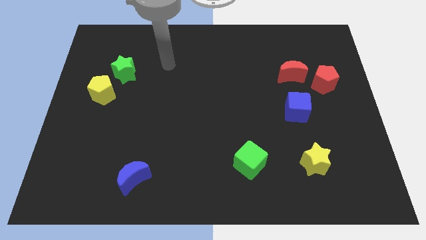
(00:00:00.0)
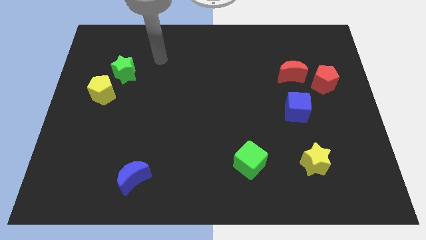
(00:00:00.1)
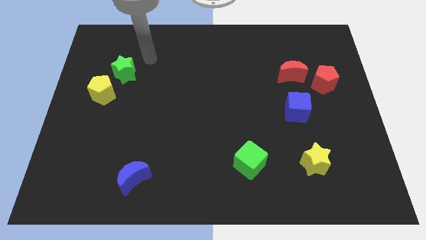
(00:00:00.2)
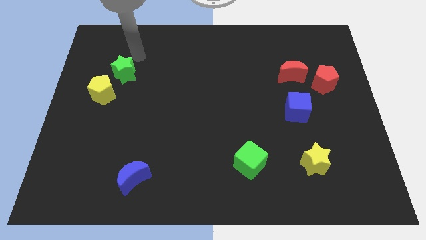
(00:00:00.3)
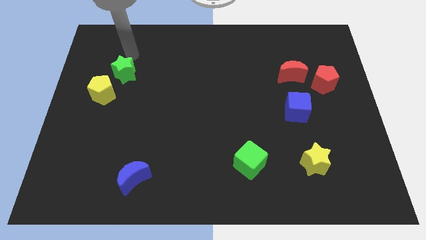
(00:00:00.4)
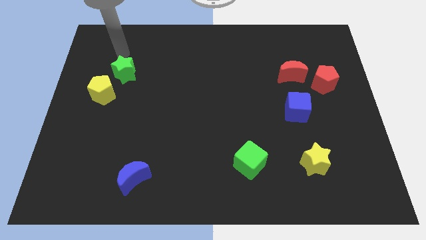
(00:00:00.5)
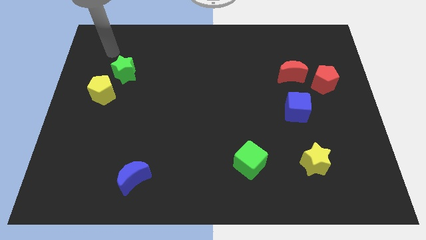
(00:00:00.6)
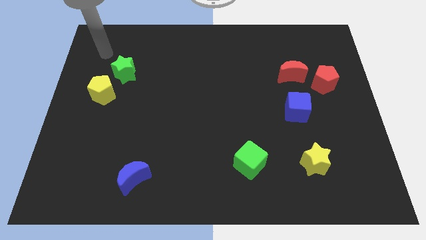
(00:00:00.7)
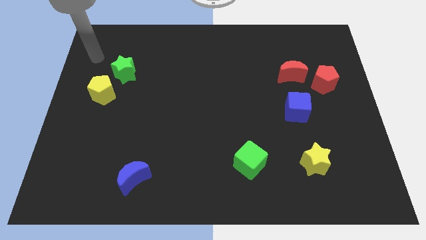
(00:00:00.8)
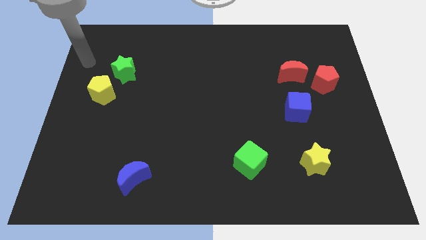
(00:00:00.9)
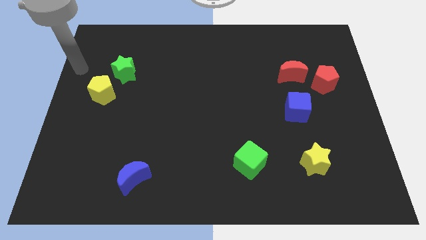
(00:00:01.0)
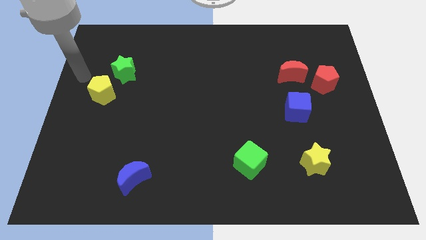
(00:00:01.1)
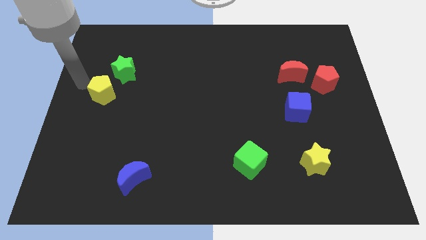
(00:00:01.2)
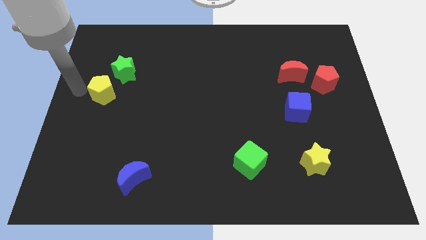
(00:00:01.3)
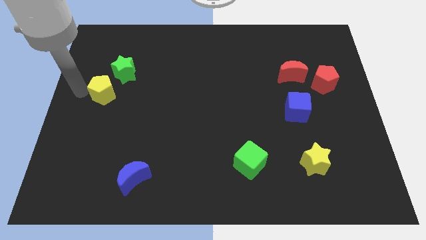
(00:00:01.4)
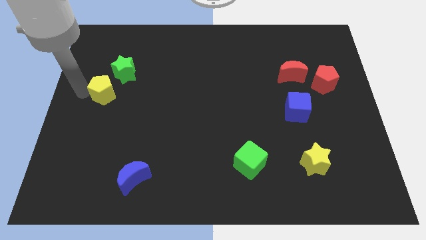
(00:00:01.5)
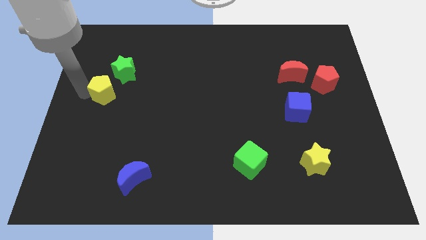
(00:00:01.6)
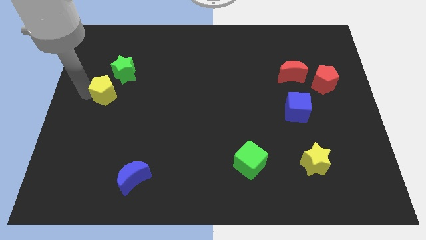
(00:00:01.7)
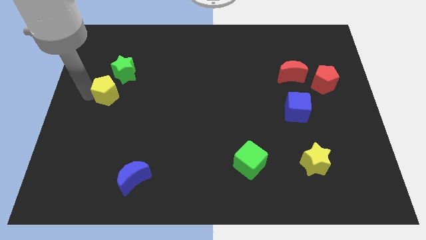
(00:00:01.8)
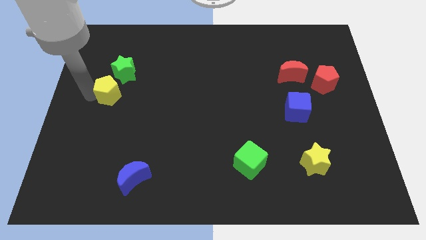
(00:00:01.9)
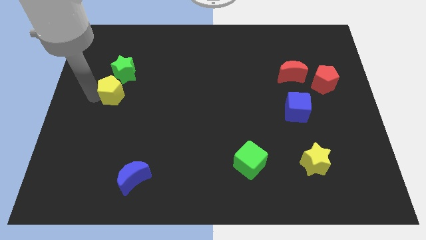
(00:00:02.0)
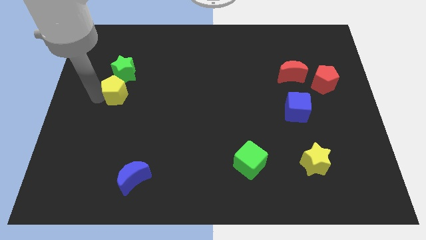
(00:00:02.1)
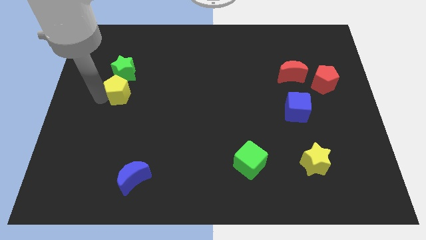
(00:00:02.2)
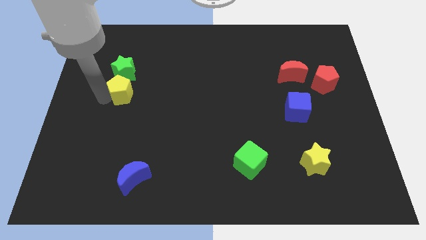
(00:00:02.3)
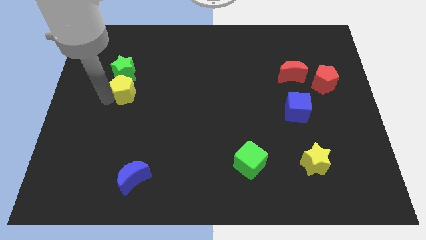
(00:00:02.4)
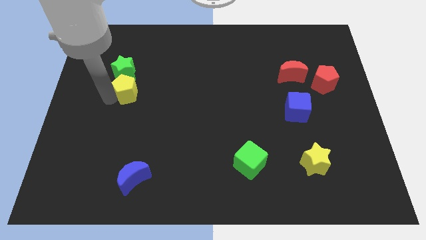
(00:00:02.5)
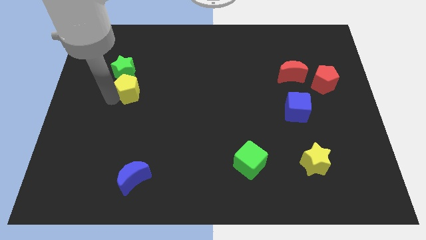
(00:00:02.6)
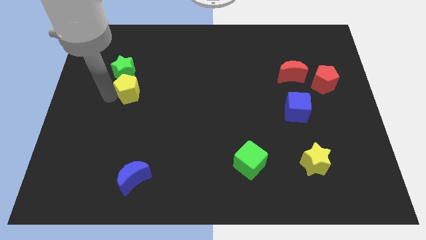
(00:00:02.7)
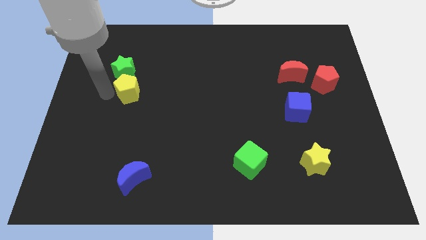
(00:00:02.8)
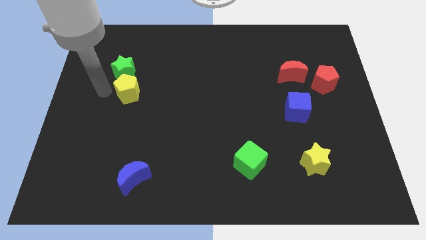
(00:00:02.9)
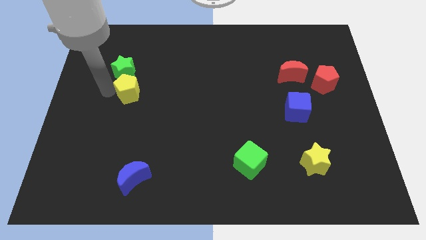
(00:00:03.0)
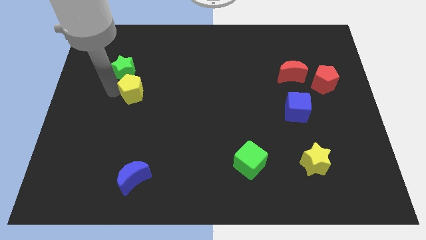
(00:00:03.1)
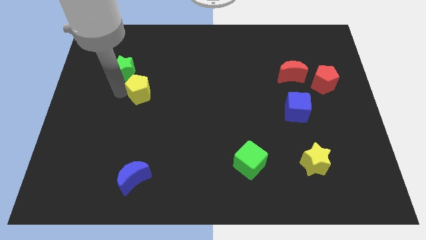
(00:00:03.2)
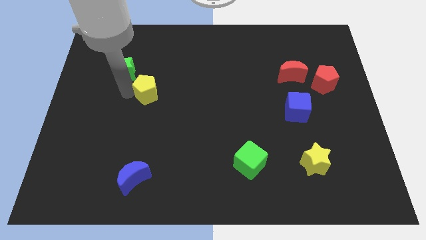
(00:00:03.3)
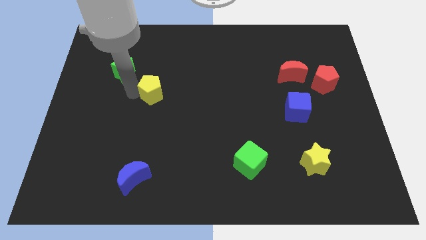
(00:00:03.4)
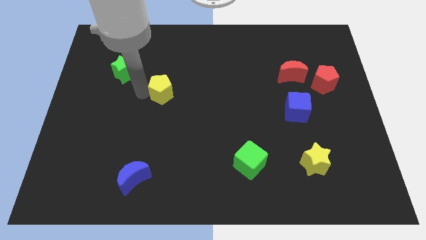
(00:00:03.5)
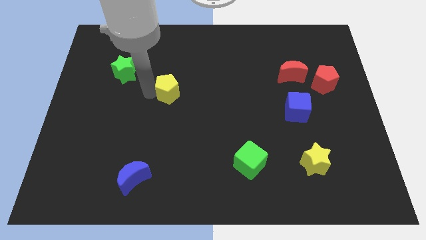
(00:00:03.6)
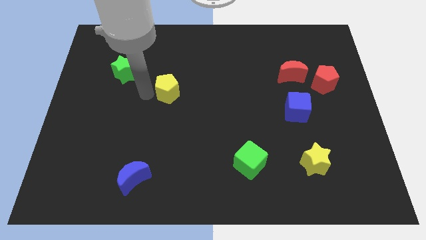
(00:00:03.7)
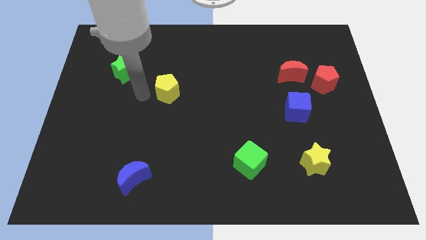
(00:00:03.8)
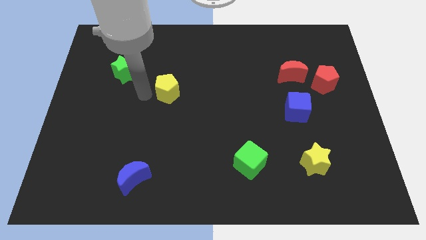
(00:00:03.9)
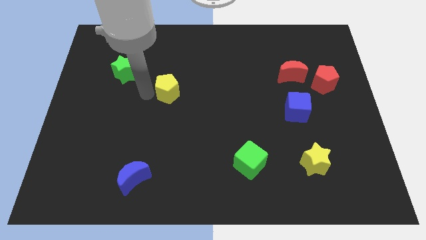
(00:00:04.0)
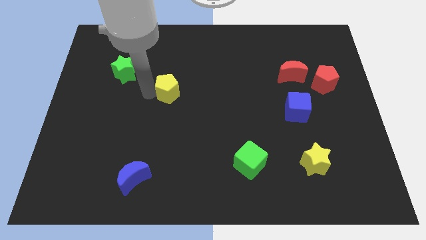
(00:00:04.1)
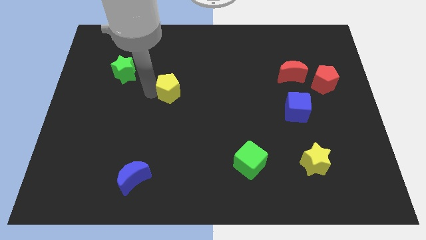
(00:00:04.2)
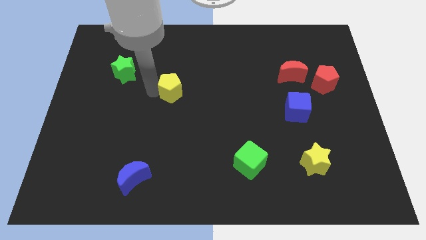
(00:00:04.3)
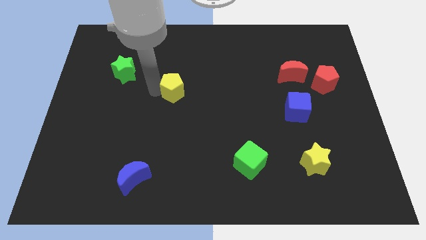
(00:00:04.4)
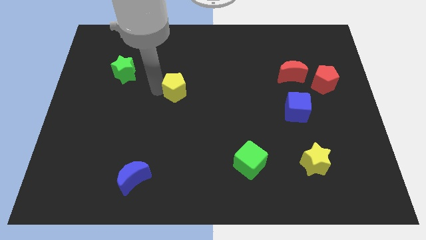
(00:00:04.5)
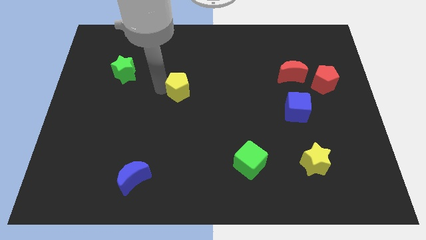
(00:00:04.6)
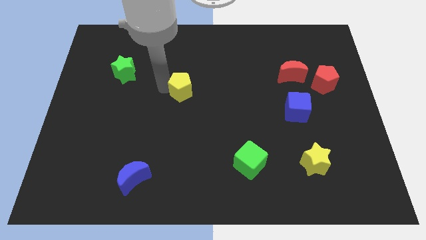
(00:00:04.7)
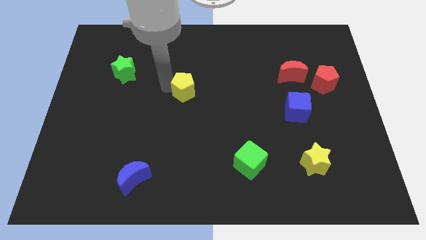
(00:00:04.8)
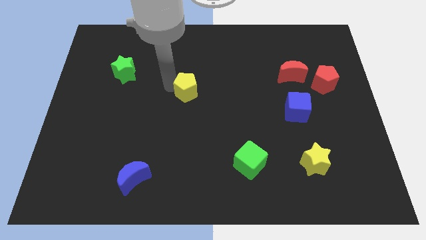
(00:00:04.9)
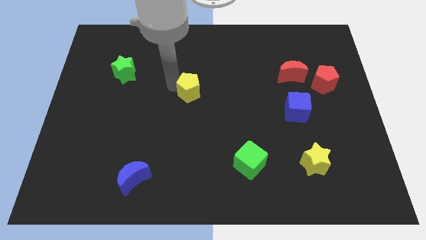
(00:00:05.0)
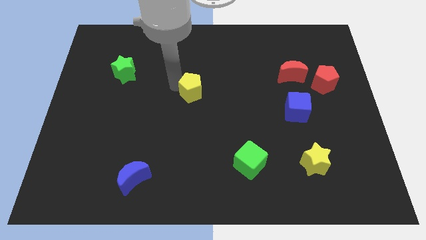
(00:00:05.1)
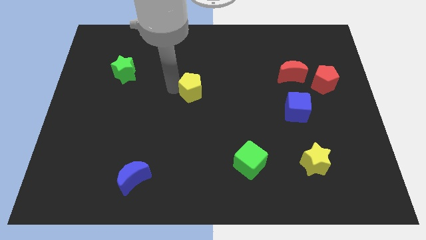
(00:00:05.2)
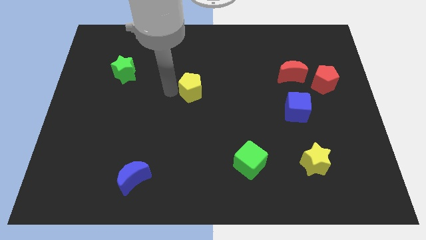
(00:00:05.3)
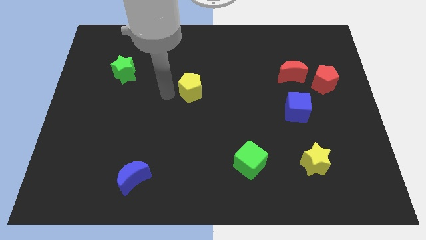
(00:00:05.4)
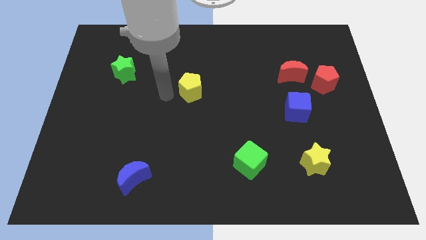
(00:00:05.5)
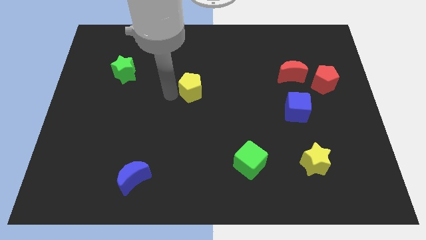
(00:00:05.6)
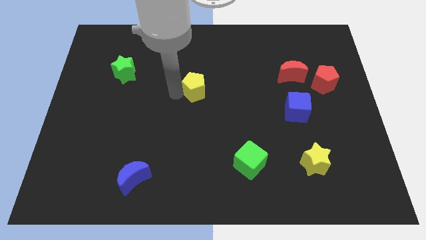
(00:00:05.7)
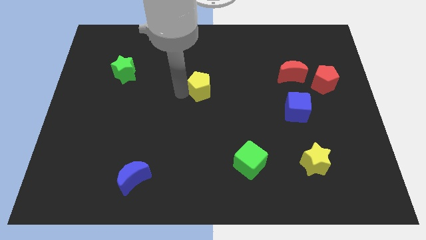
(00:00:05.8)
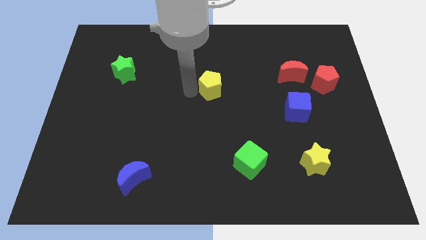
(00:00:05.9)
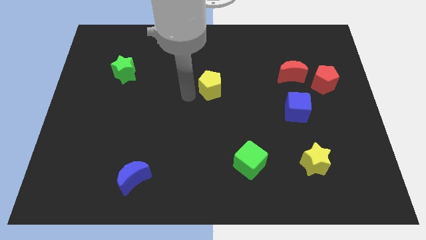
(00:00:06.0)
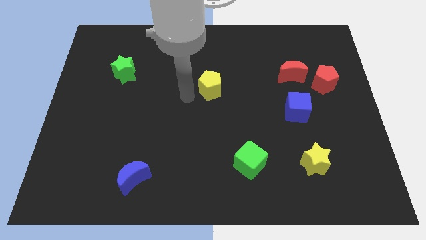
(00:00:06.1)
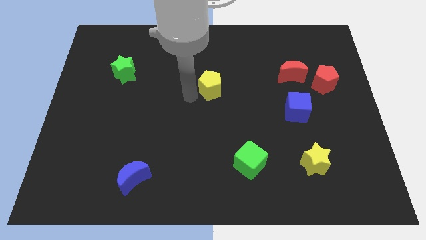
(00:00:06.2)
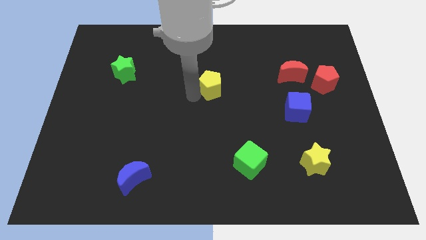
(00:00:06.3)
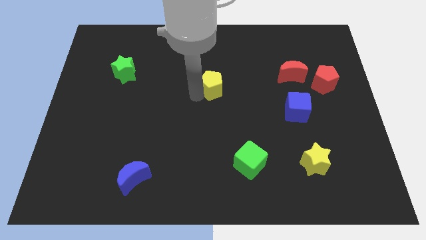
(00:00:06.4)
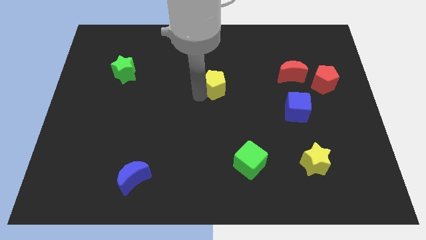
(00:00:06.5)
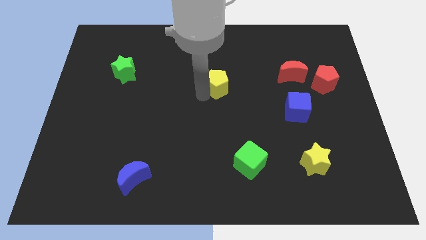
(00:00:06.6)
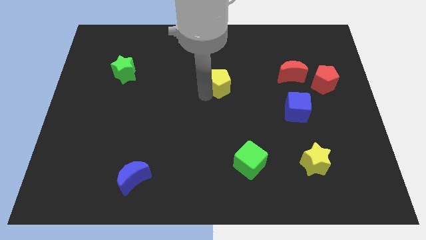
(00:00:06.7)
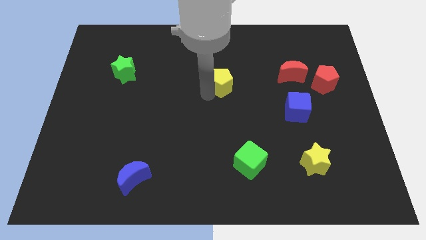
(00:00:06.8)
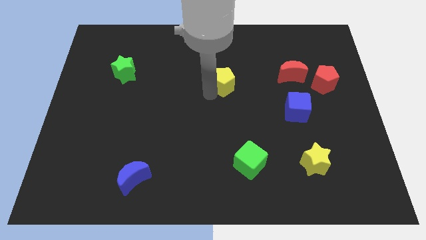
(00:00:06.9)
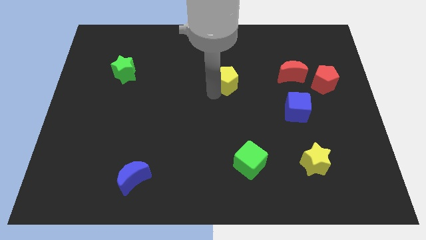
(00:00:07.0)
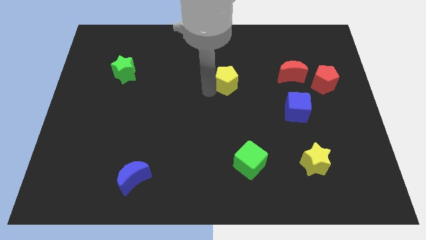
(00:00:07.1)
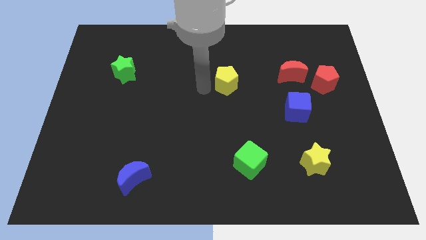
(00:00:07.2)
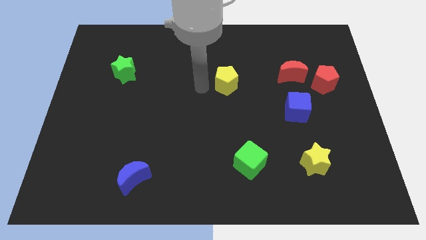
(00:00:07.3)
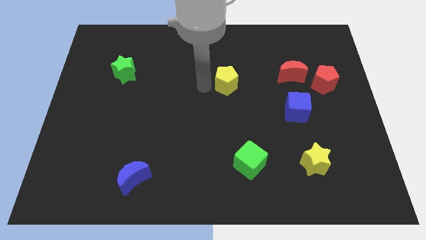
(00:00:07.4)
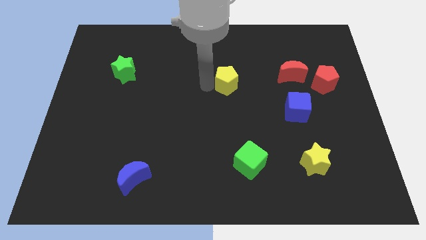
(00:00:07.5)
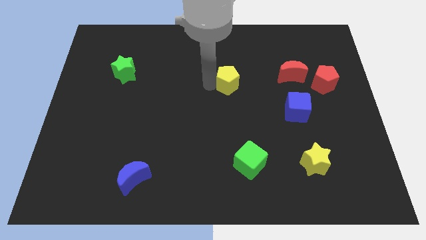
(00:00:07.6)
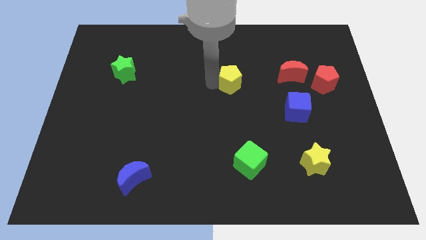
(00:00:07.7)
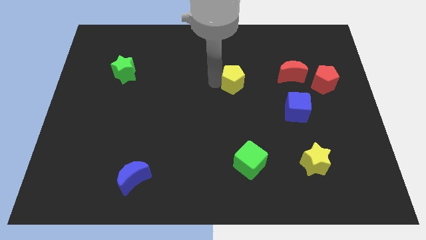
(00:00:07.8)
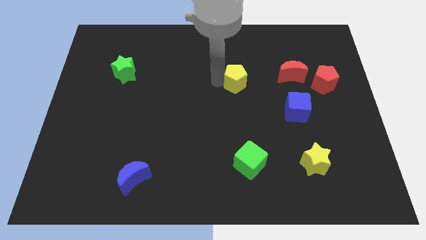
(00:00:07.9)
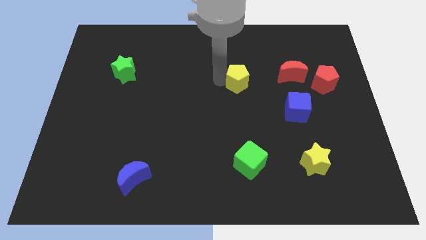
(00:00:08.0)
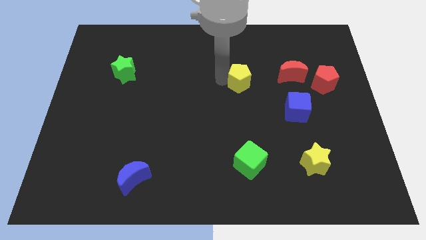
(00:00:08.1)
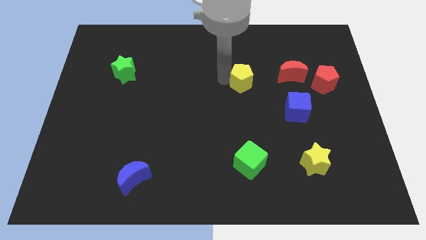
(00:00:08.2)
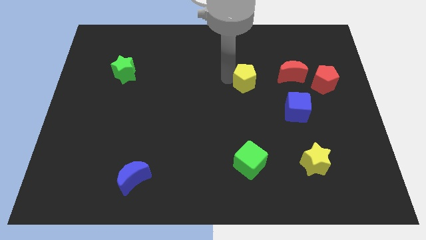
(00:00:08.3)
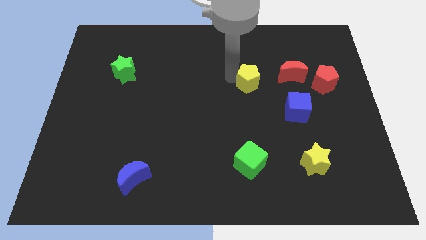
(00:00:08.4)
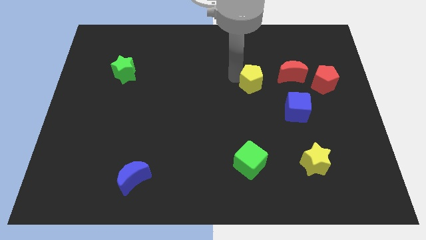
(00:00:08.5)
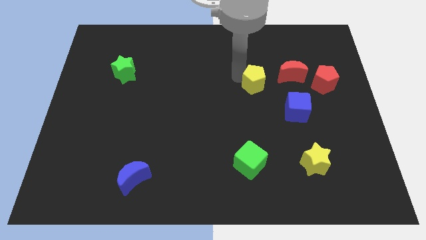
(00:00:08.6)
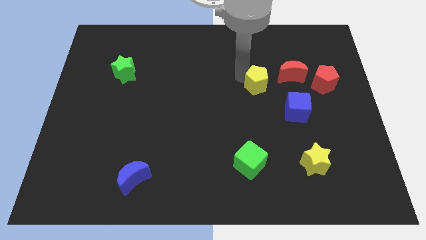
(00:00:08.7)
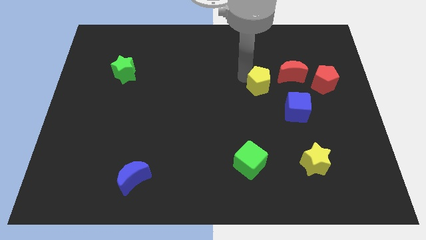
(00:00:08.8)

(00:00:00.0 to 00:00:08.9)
put the yellow pentagon to the left of the red pentagon
